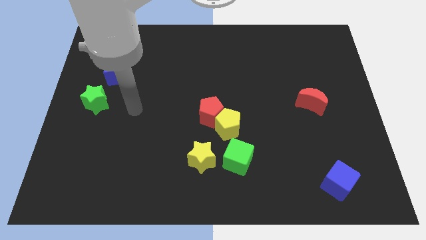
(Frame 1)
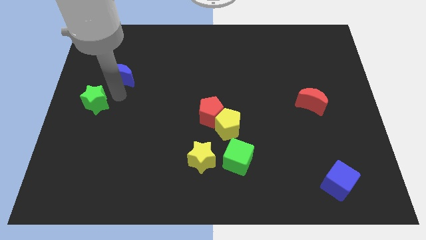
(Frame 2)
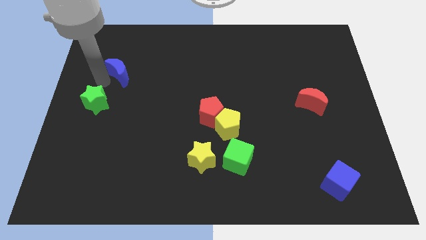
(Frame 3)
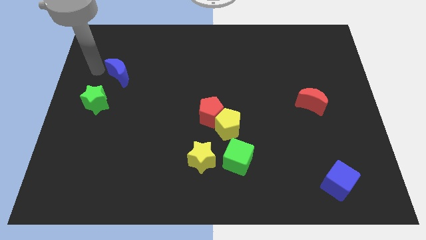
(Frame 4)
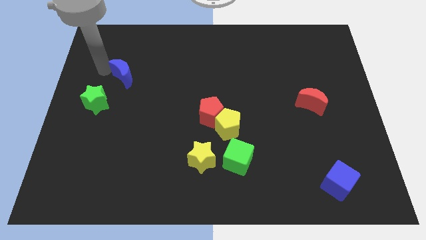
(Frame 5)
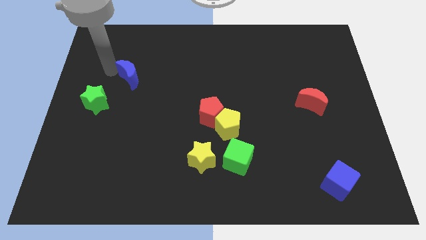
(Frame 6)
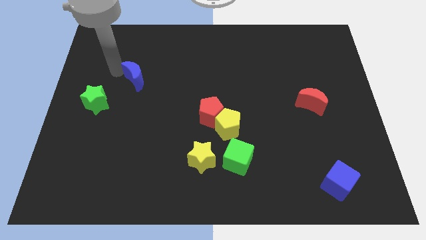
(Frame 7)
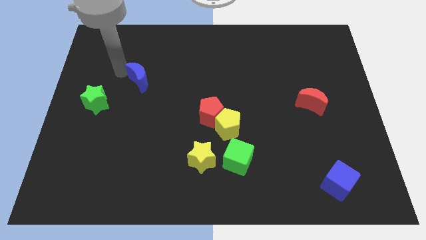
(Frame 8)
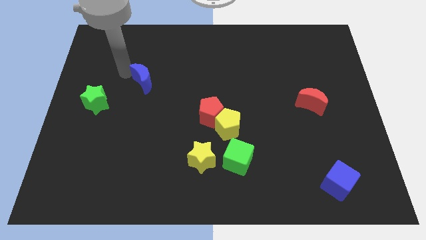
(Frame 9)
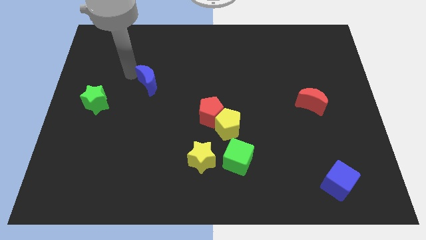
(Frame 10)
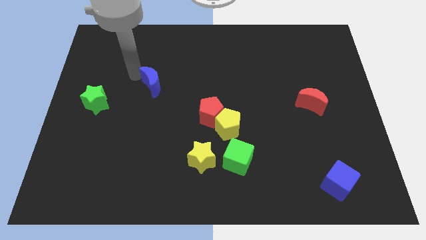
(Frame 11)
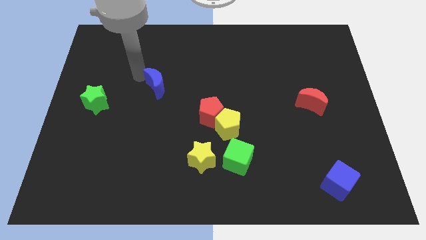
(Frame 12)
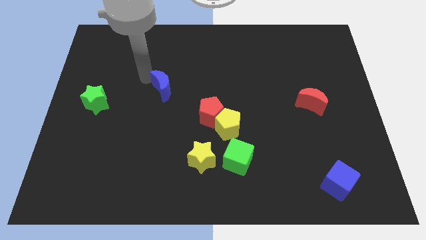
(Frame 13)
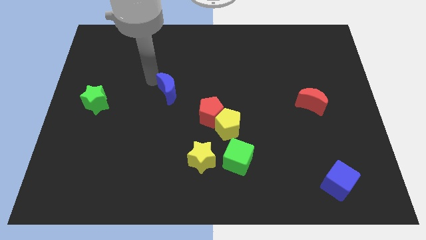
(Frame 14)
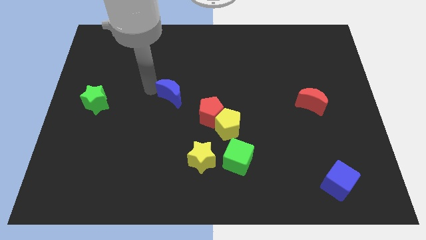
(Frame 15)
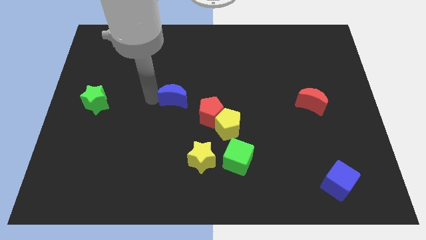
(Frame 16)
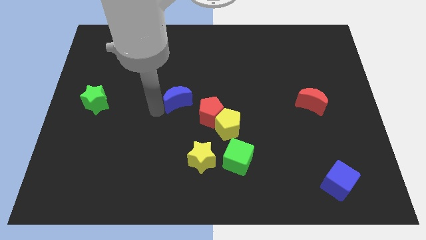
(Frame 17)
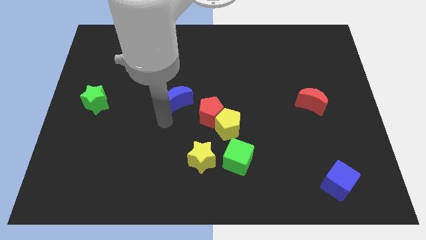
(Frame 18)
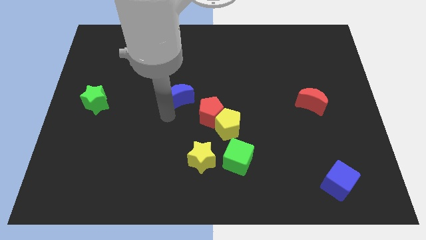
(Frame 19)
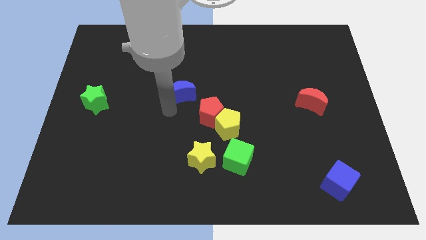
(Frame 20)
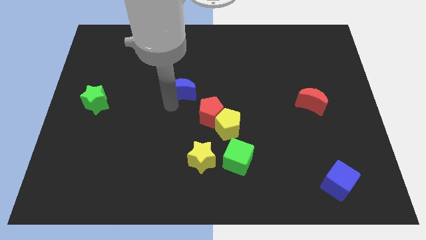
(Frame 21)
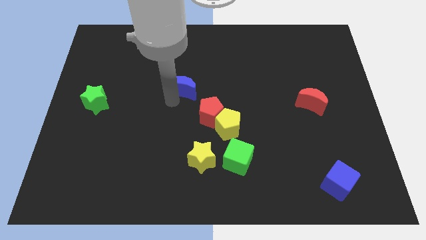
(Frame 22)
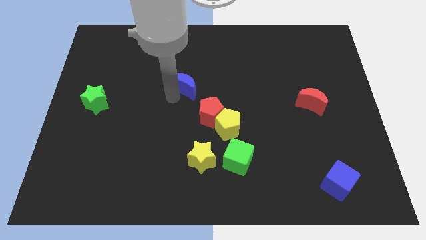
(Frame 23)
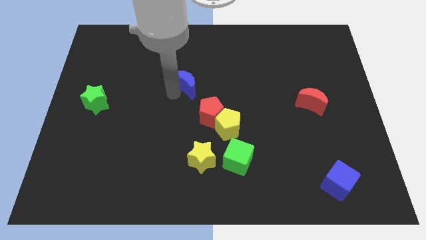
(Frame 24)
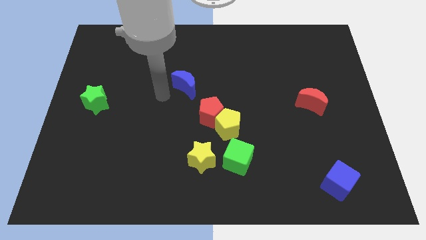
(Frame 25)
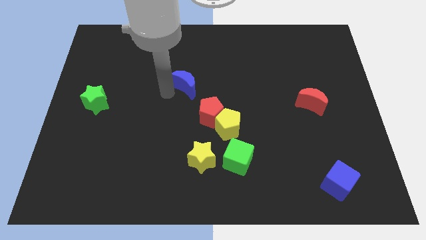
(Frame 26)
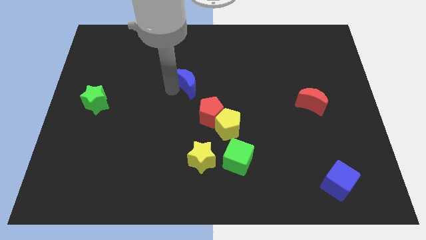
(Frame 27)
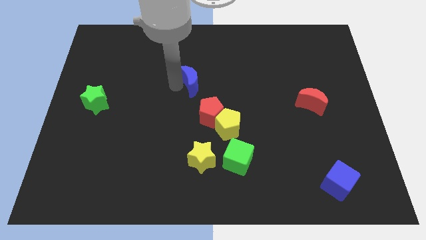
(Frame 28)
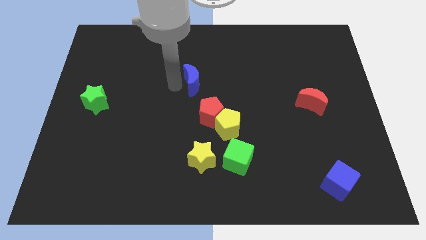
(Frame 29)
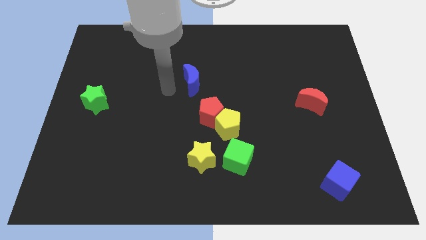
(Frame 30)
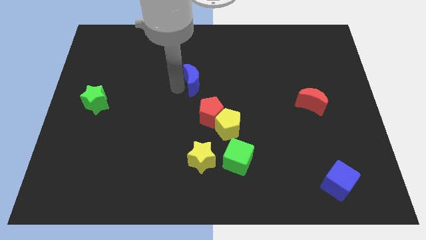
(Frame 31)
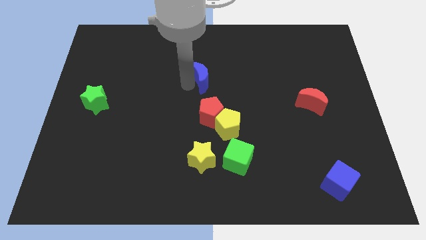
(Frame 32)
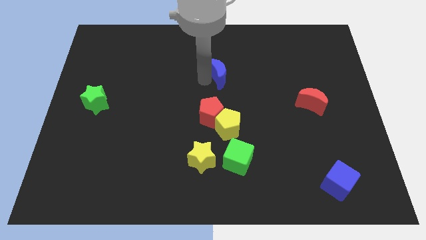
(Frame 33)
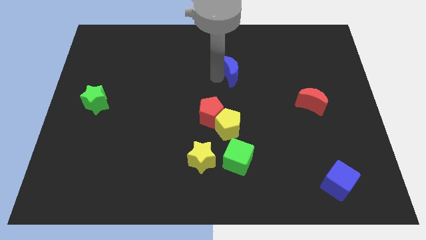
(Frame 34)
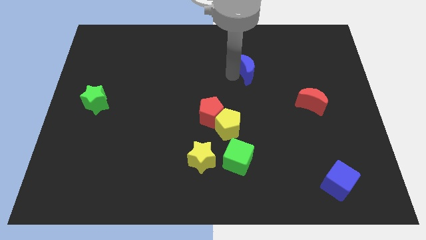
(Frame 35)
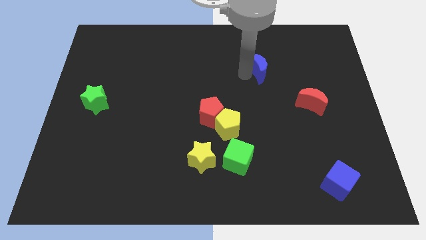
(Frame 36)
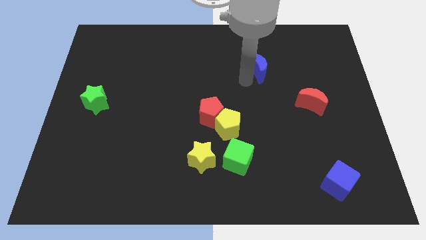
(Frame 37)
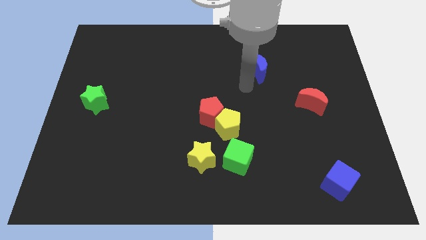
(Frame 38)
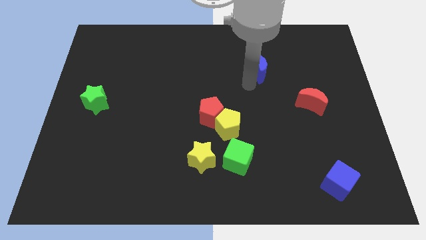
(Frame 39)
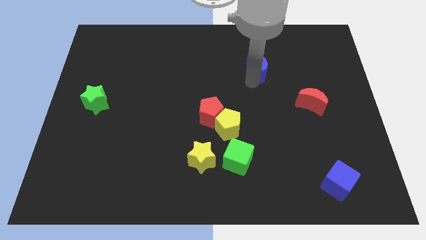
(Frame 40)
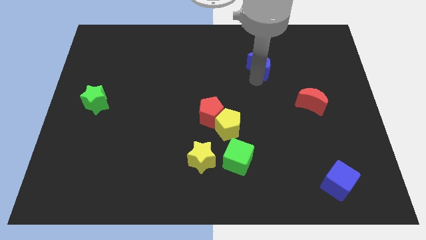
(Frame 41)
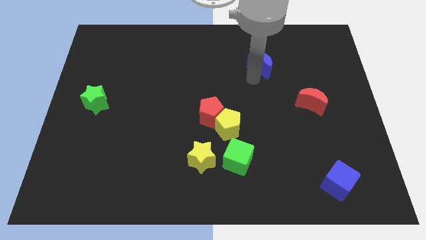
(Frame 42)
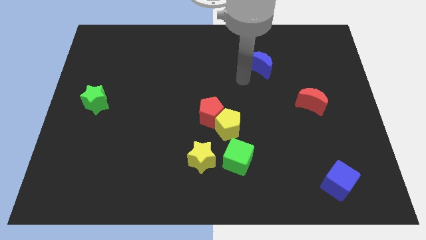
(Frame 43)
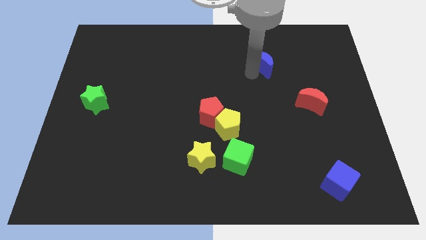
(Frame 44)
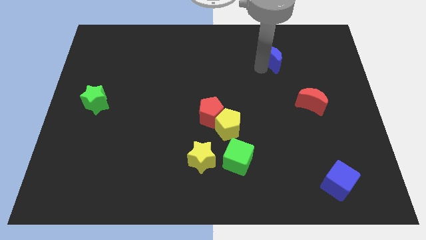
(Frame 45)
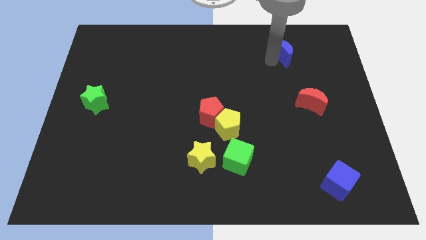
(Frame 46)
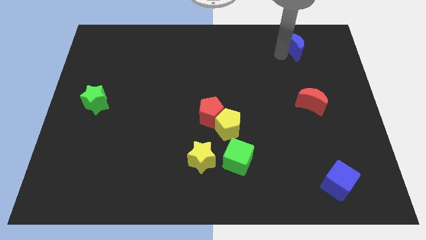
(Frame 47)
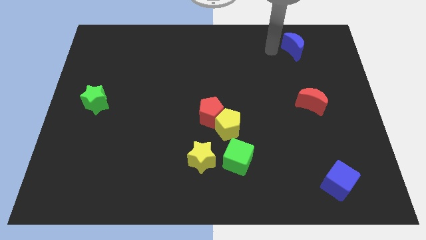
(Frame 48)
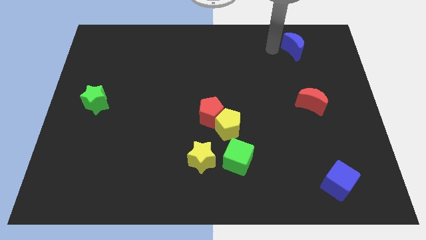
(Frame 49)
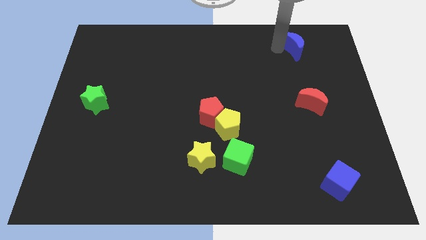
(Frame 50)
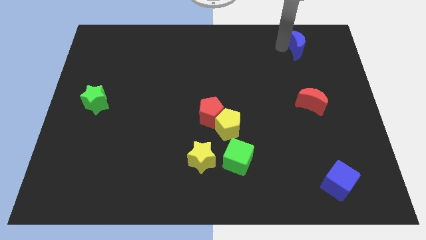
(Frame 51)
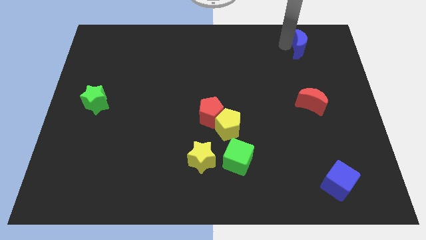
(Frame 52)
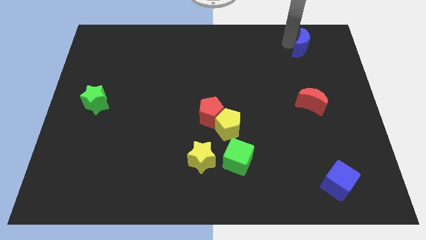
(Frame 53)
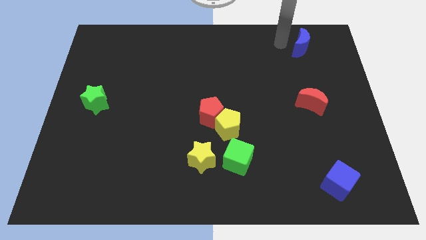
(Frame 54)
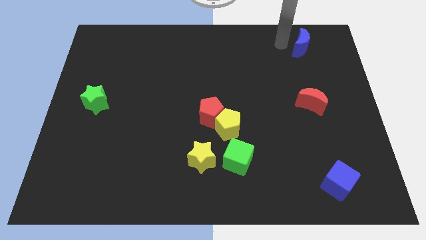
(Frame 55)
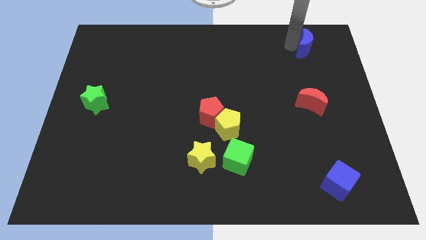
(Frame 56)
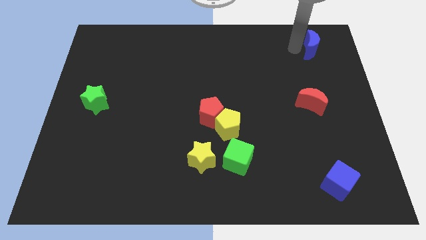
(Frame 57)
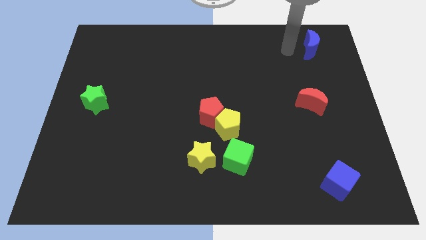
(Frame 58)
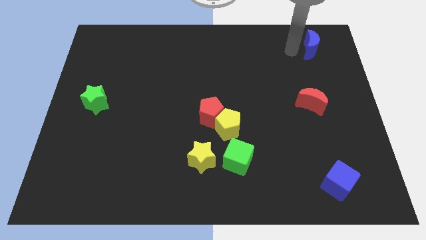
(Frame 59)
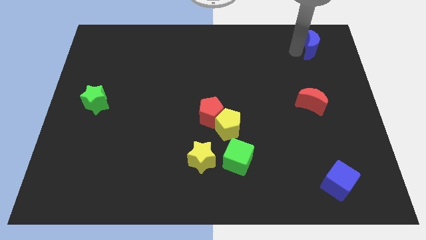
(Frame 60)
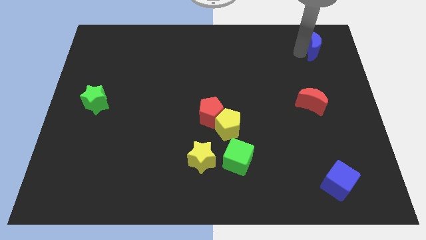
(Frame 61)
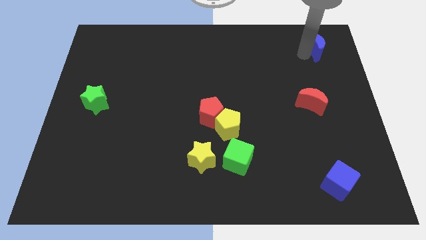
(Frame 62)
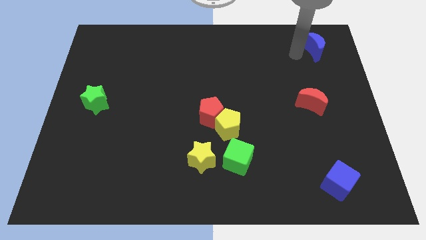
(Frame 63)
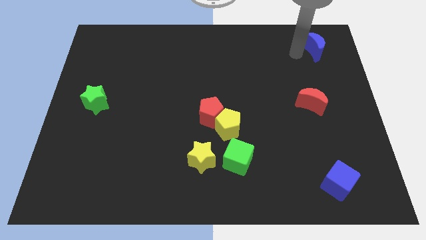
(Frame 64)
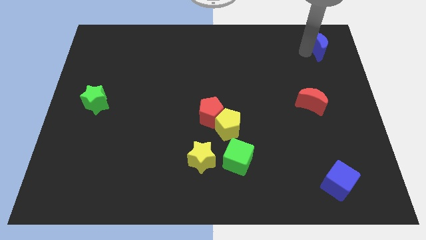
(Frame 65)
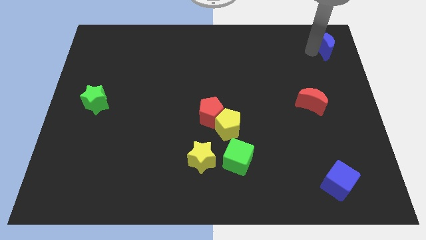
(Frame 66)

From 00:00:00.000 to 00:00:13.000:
push the blue moon to the upper right corner
